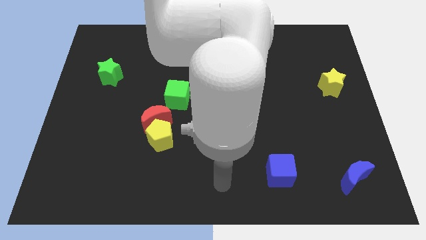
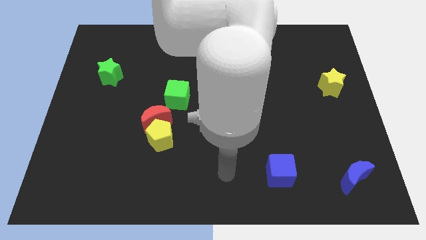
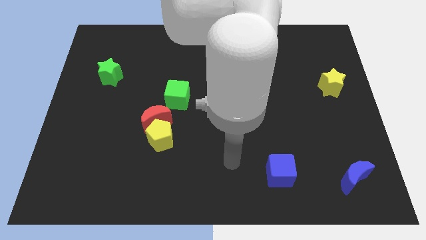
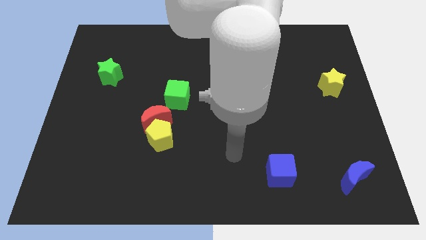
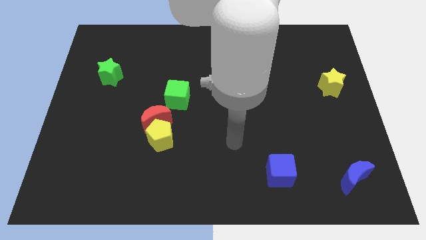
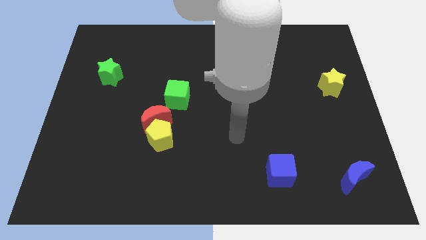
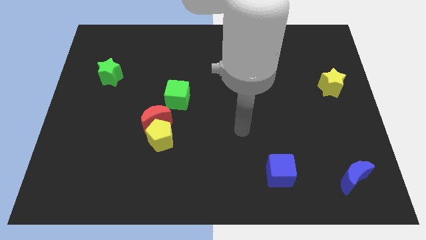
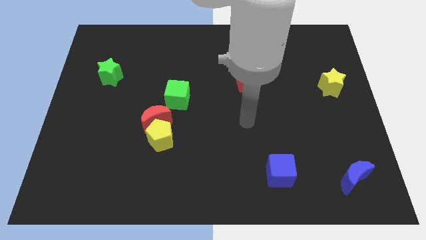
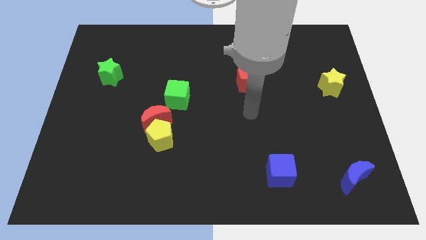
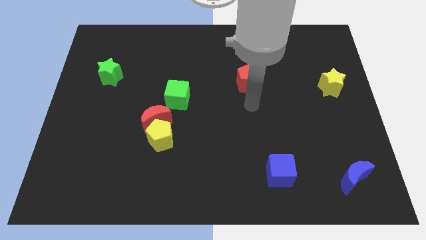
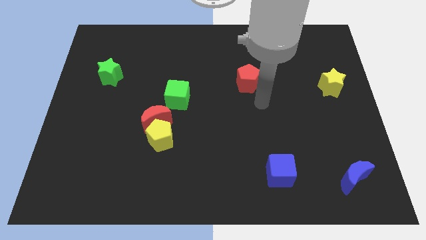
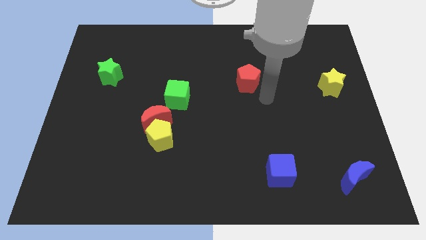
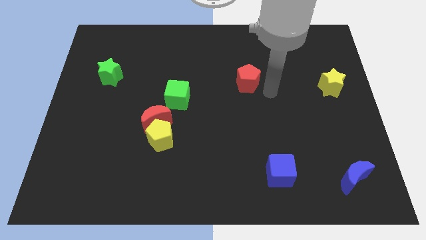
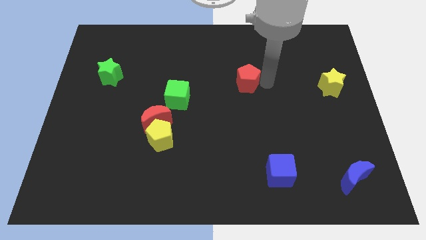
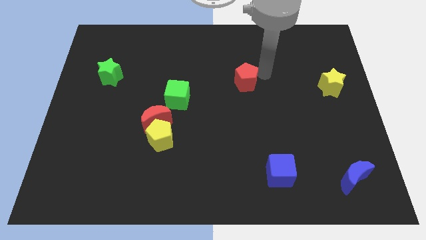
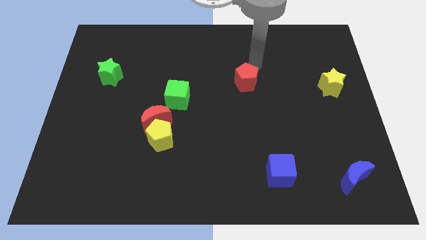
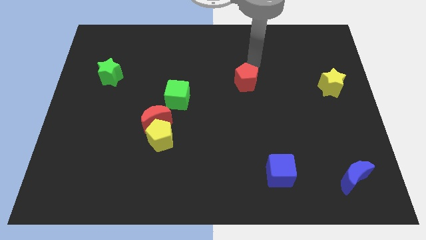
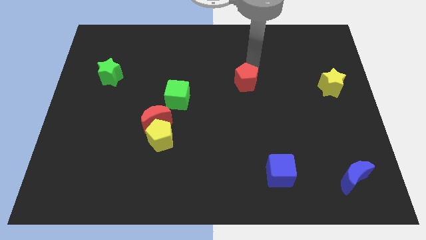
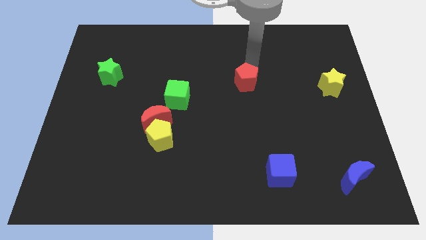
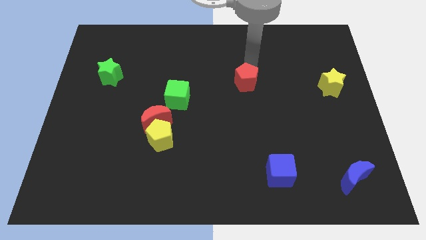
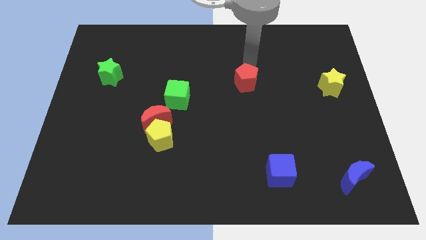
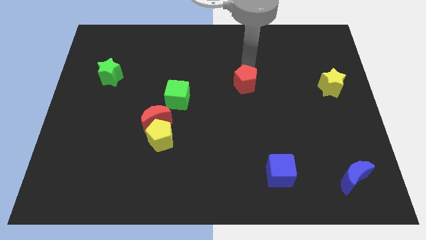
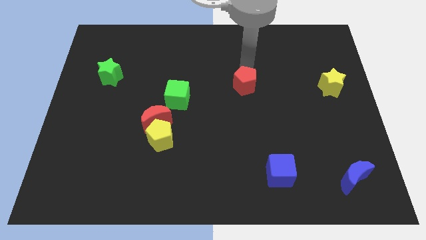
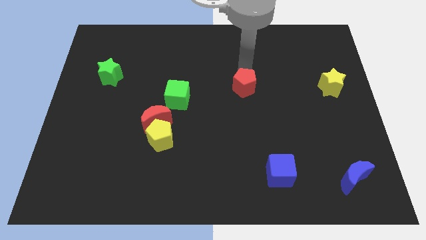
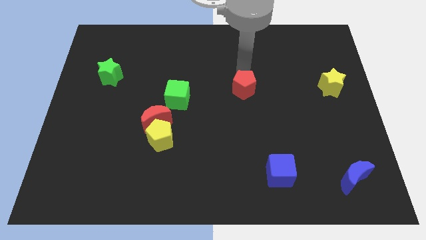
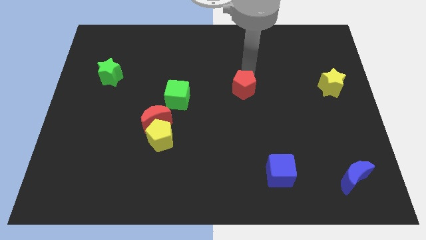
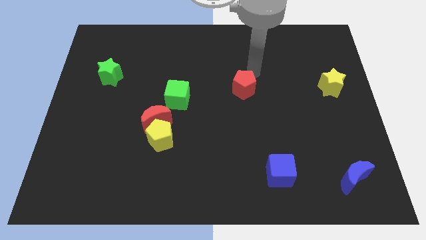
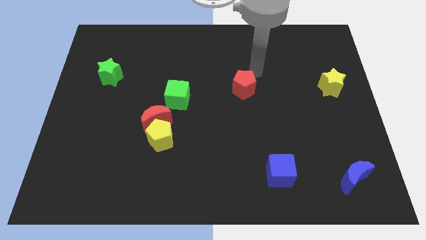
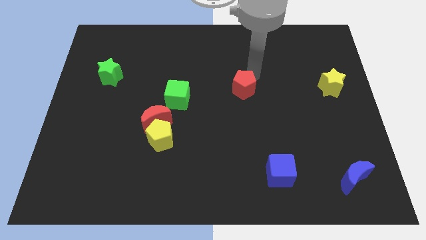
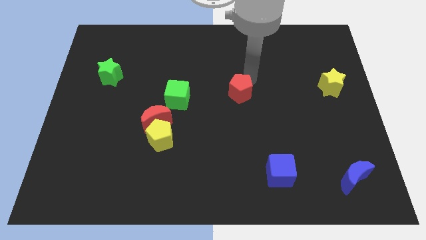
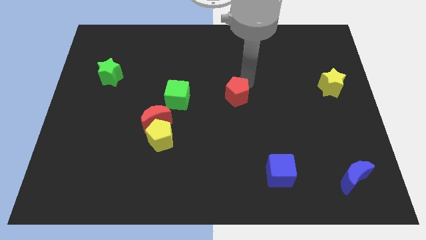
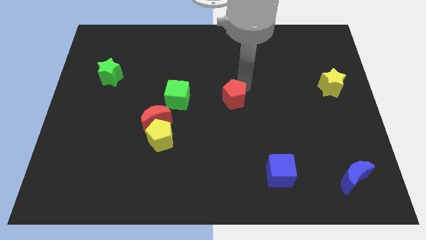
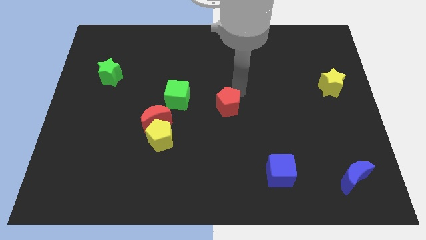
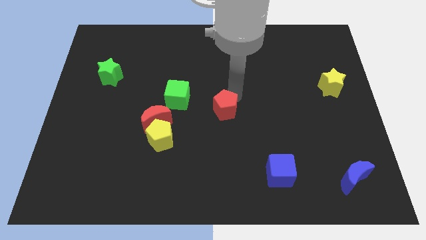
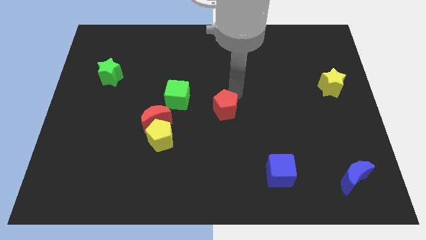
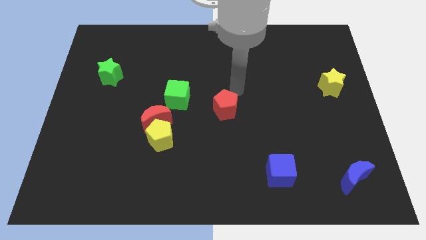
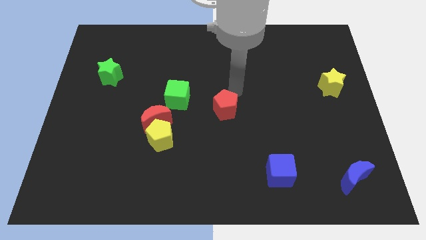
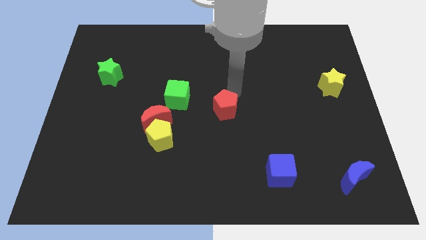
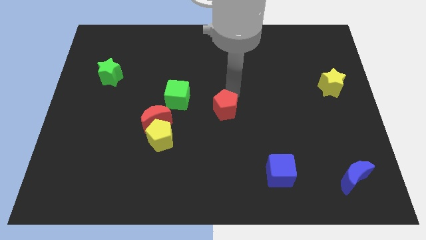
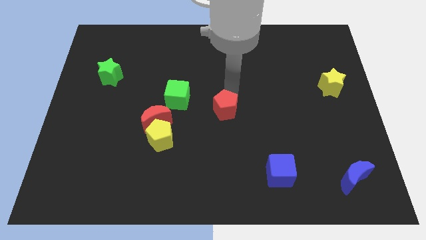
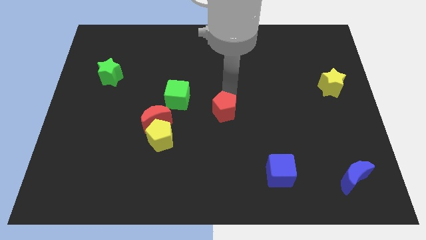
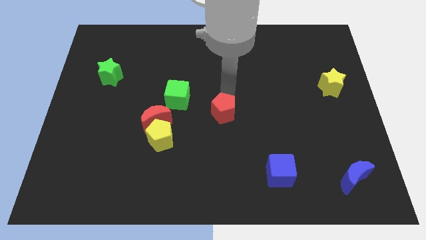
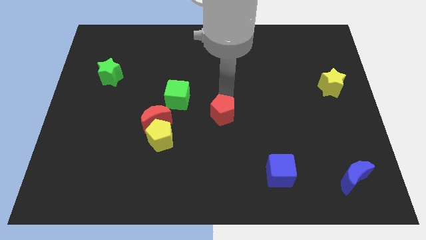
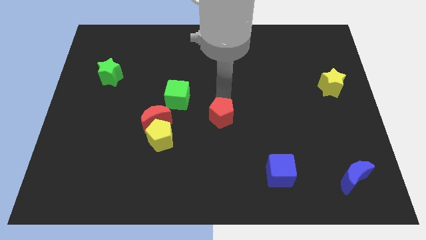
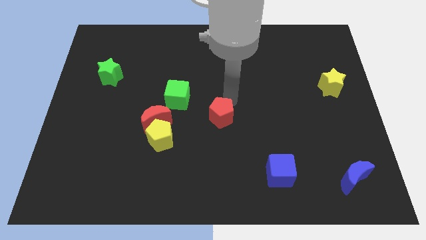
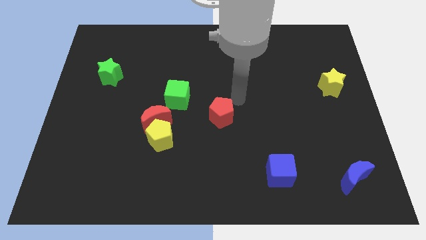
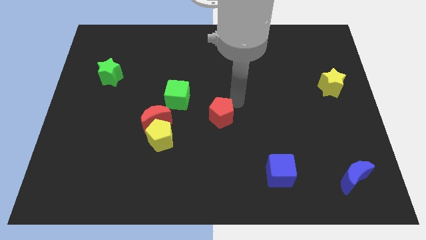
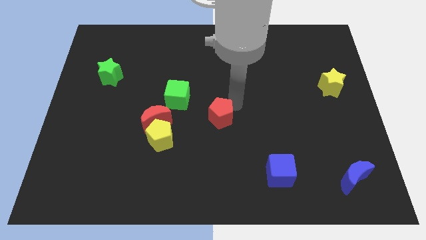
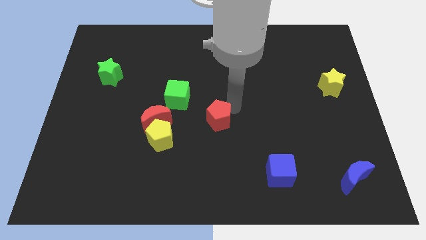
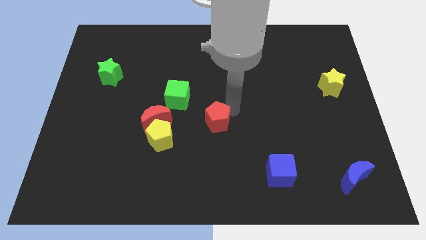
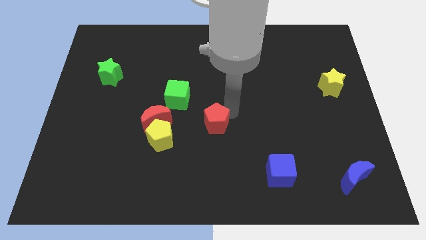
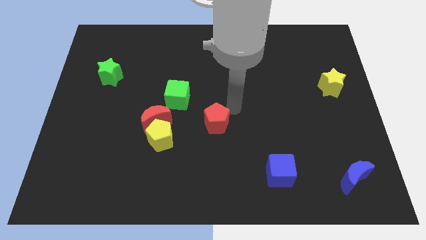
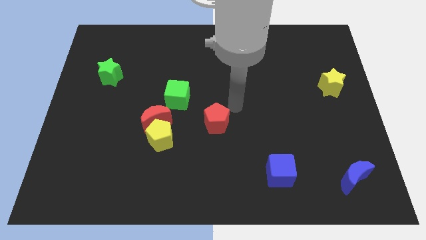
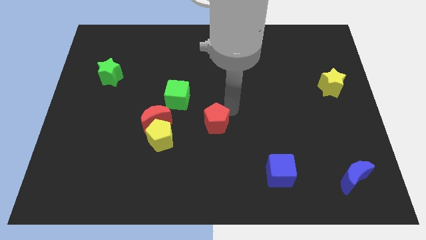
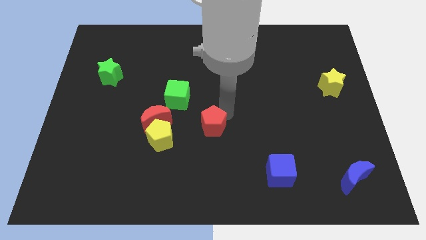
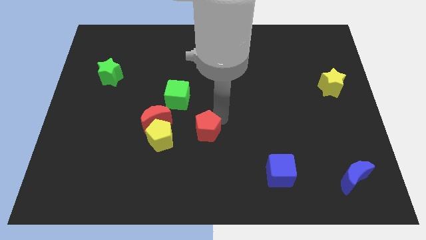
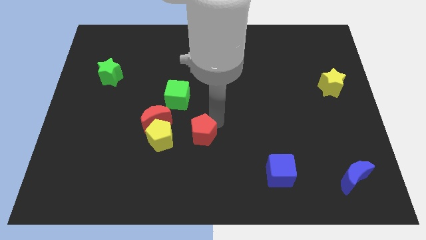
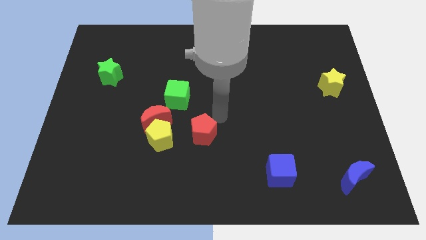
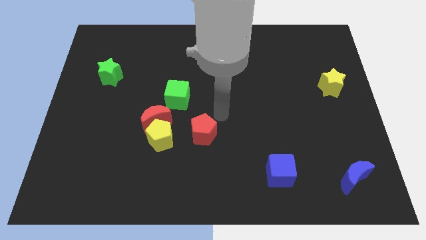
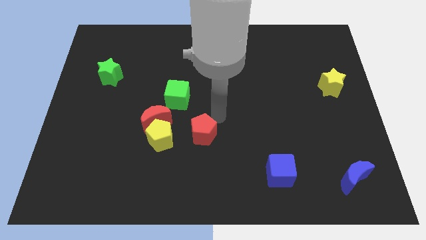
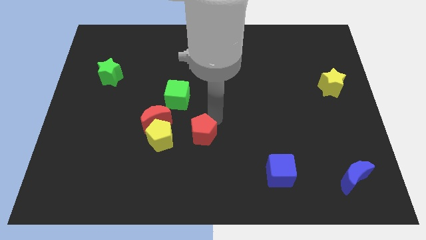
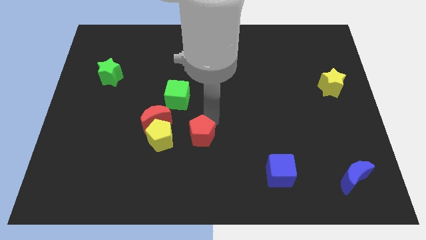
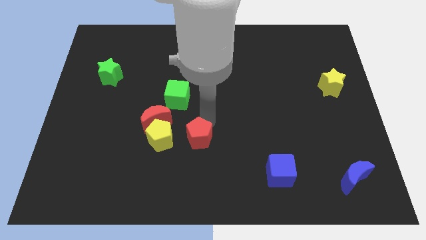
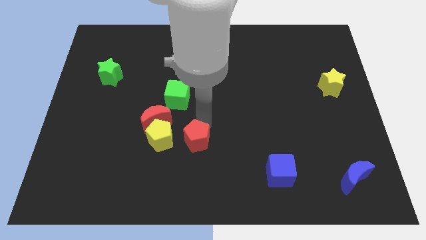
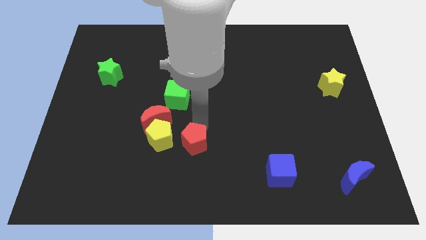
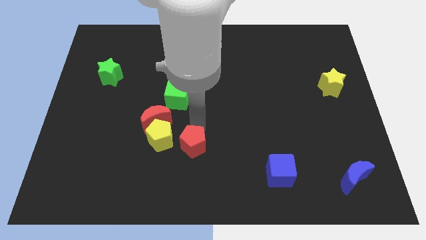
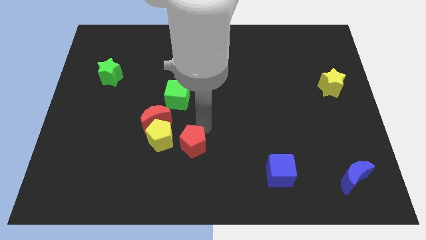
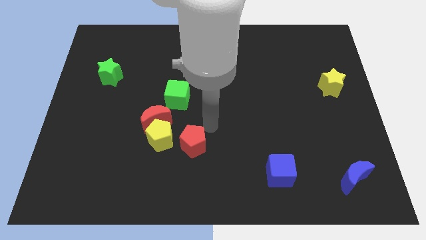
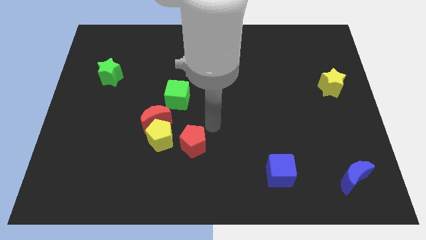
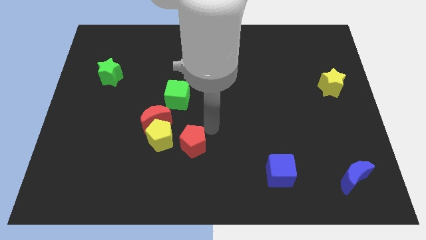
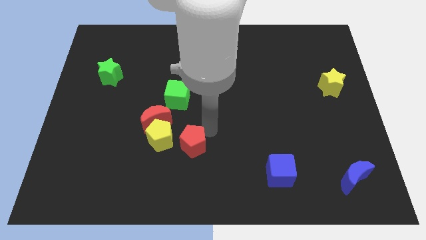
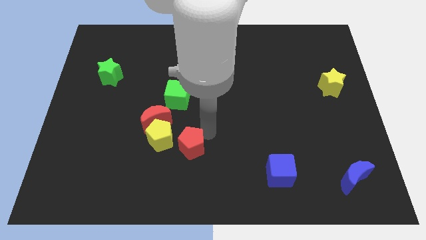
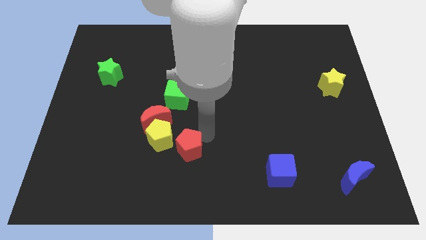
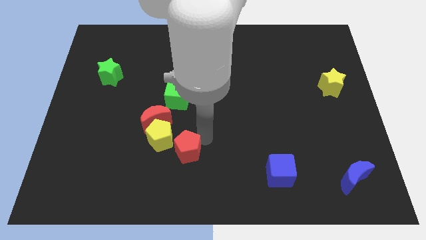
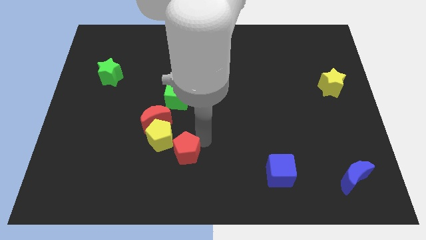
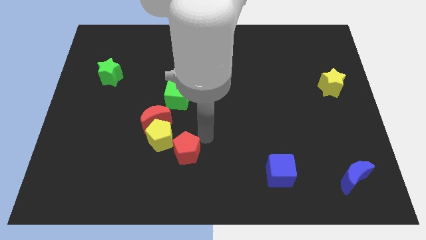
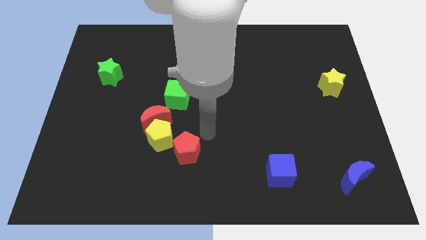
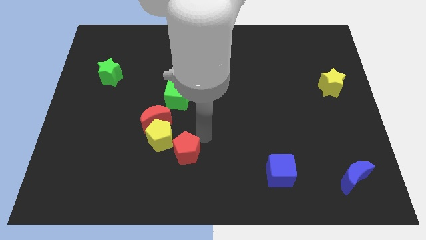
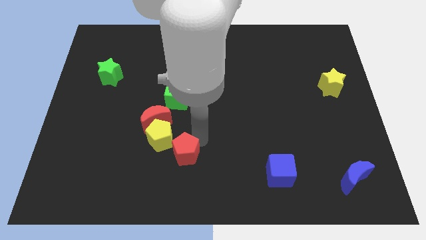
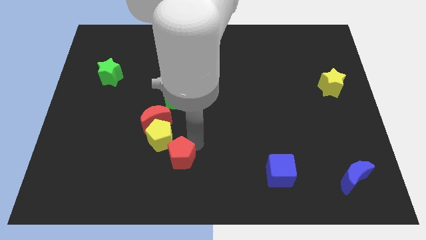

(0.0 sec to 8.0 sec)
slide the red pentagon below the yellow pentagon
